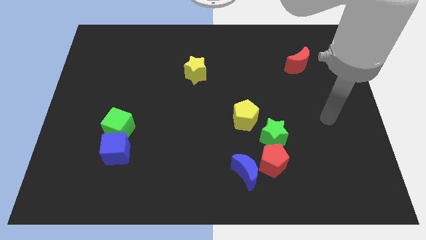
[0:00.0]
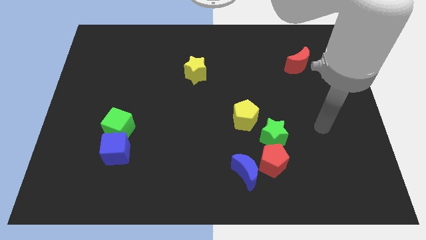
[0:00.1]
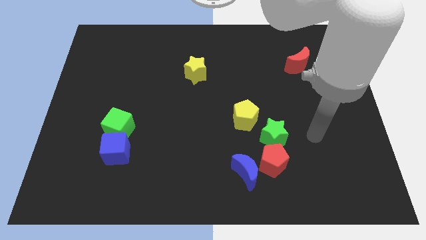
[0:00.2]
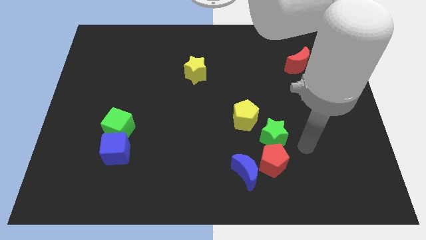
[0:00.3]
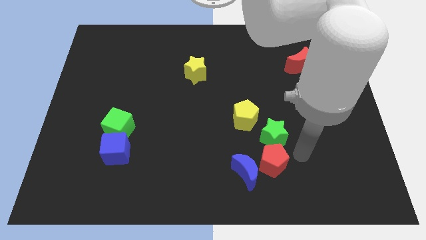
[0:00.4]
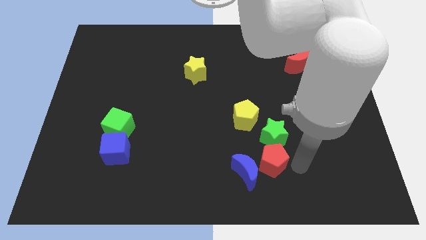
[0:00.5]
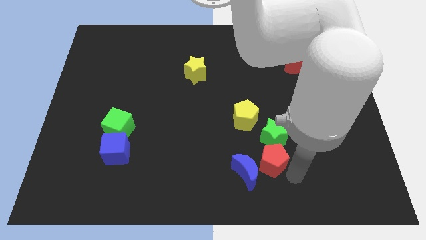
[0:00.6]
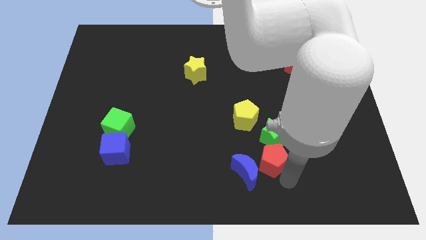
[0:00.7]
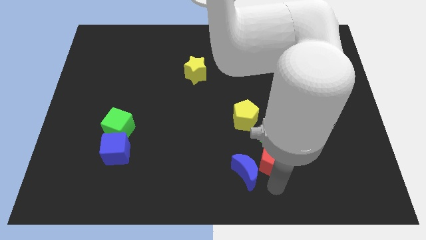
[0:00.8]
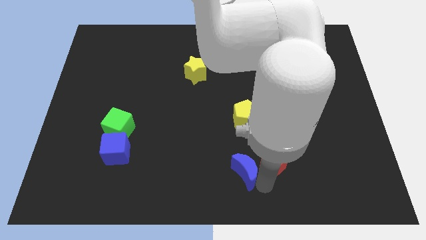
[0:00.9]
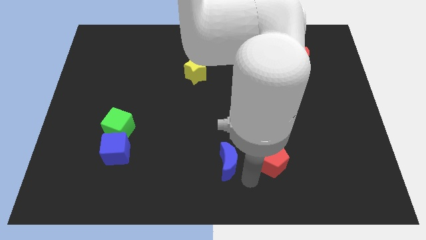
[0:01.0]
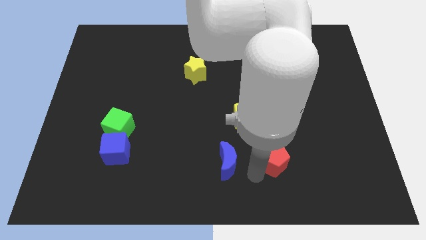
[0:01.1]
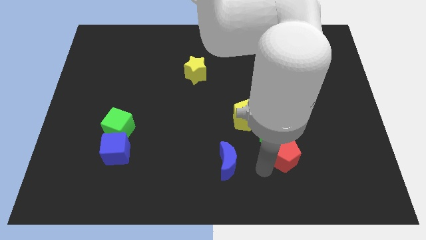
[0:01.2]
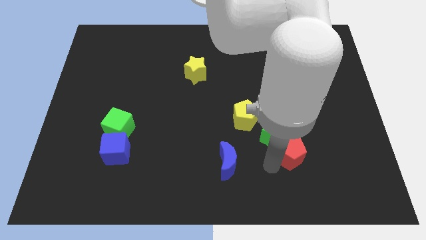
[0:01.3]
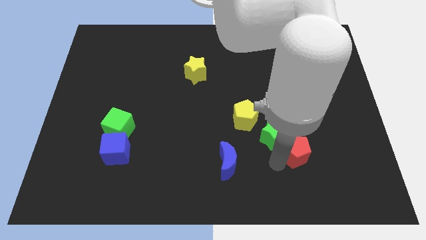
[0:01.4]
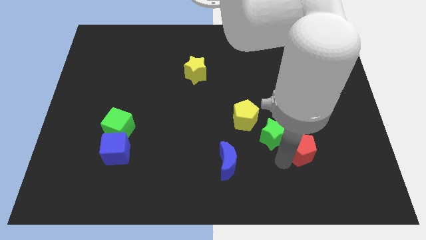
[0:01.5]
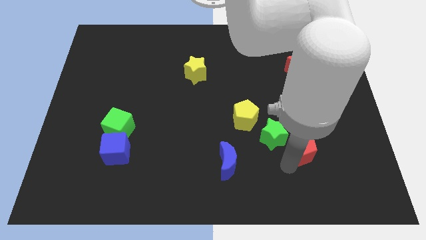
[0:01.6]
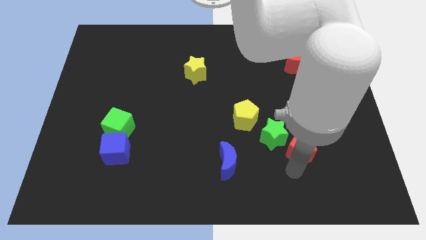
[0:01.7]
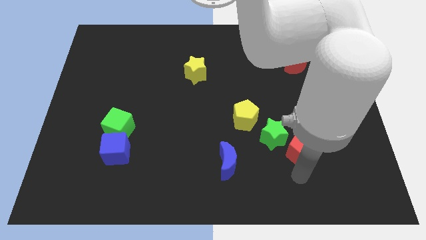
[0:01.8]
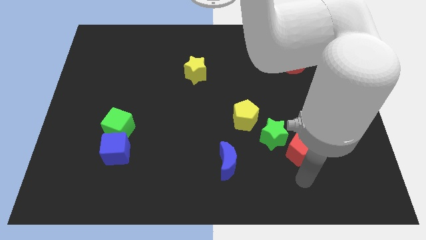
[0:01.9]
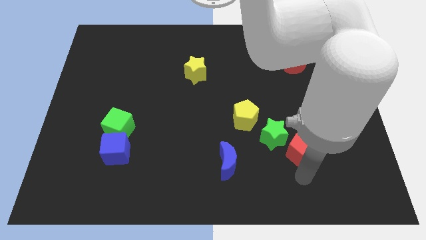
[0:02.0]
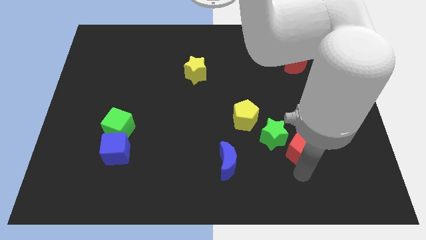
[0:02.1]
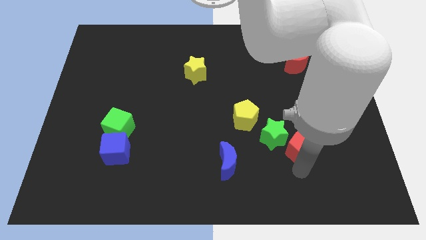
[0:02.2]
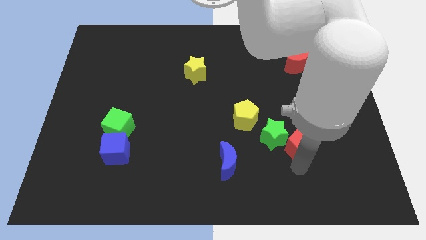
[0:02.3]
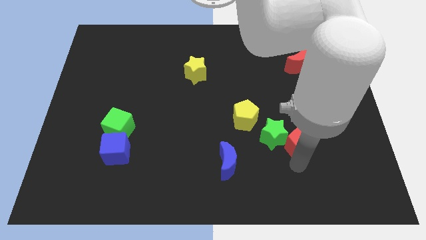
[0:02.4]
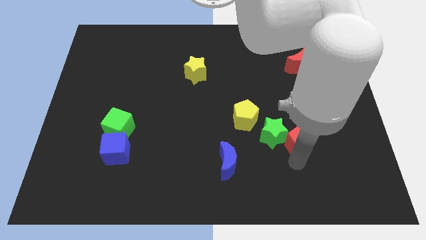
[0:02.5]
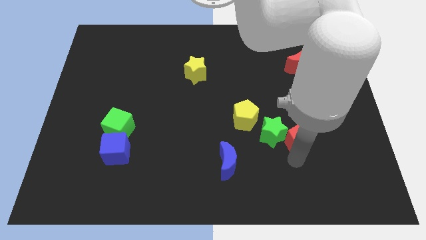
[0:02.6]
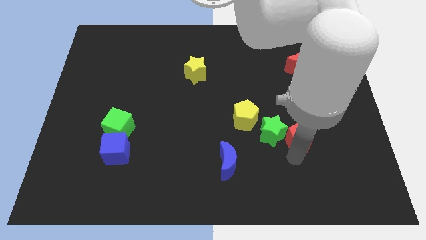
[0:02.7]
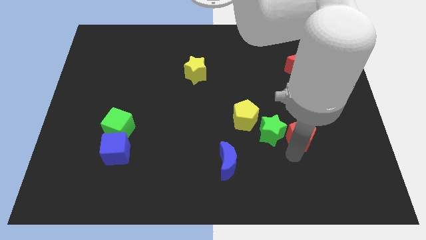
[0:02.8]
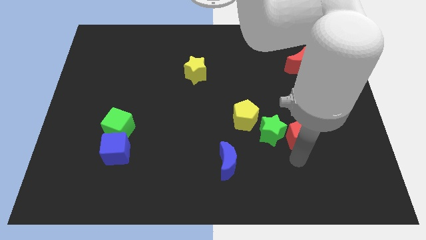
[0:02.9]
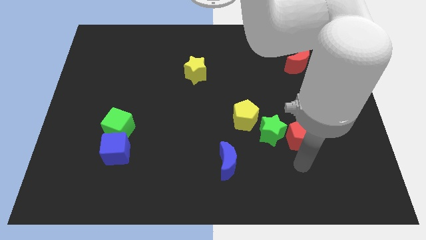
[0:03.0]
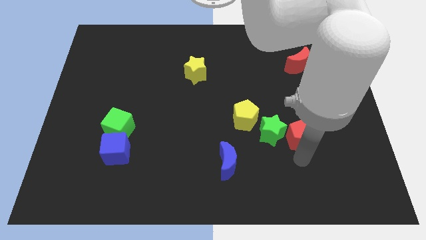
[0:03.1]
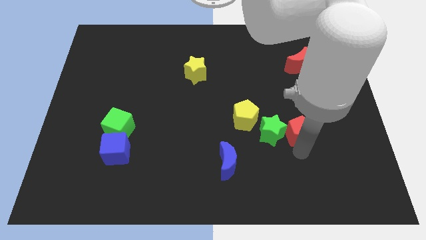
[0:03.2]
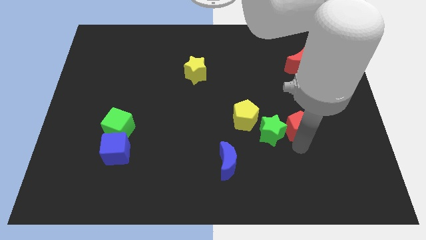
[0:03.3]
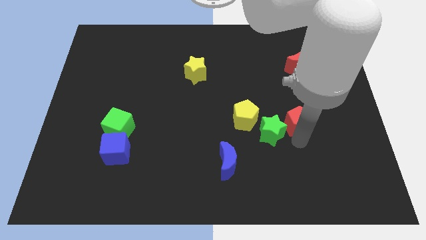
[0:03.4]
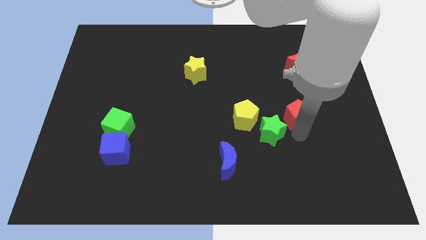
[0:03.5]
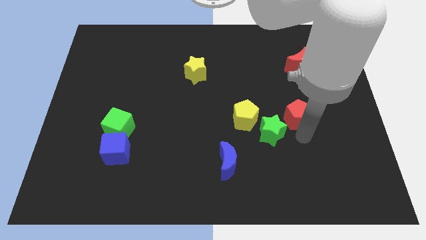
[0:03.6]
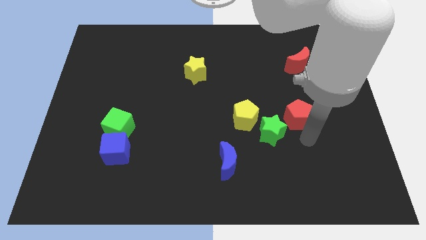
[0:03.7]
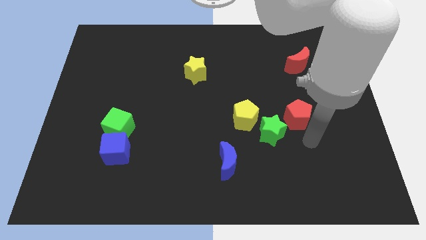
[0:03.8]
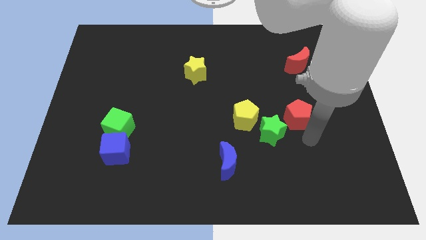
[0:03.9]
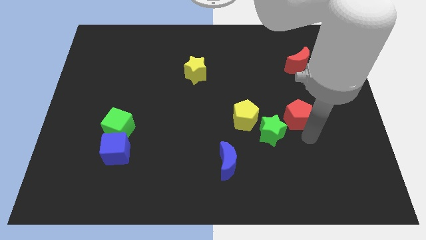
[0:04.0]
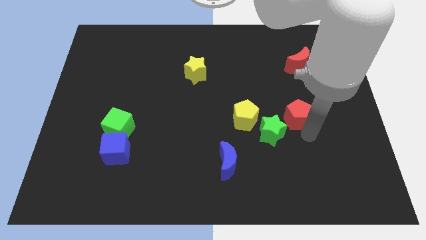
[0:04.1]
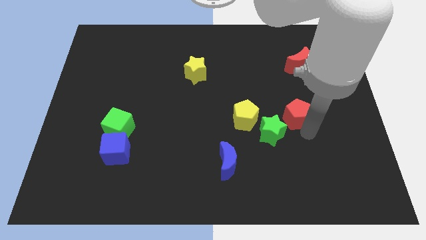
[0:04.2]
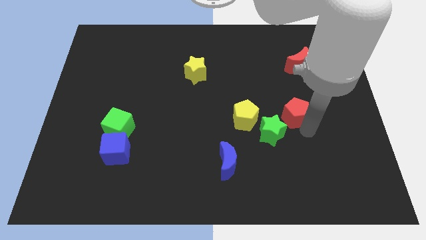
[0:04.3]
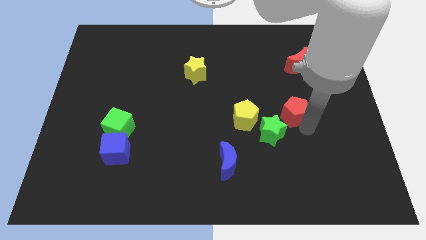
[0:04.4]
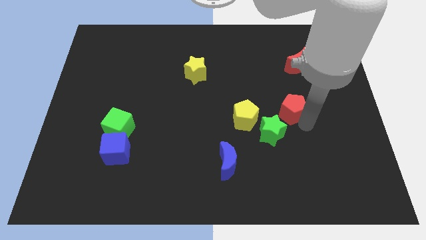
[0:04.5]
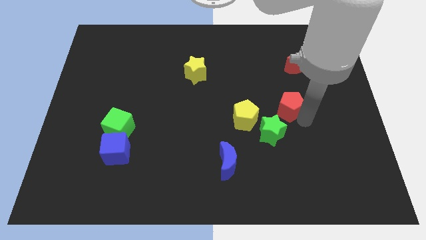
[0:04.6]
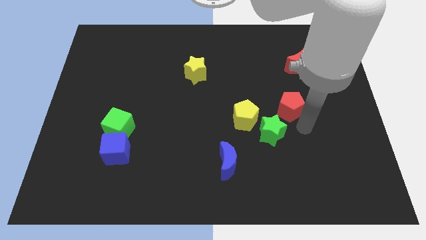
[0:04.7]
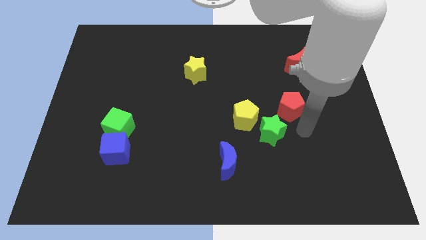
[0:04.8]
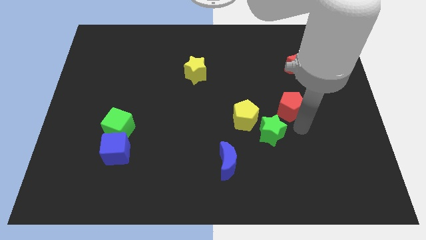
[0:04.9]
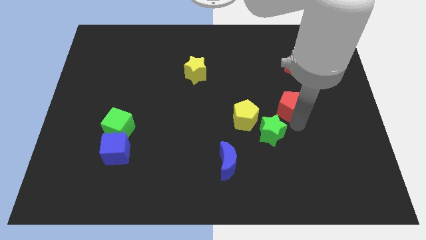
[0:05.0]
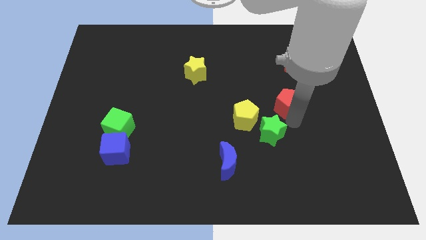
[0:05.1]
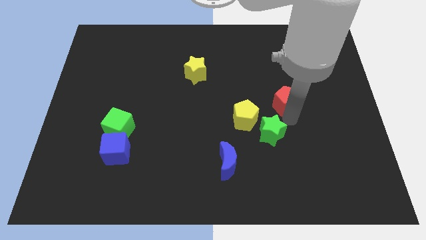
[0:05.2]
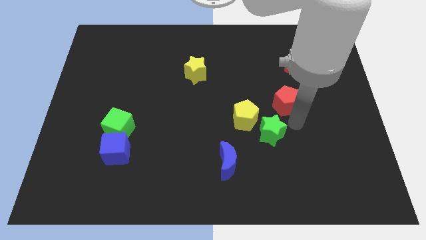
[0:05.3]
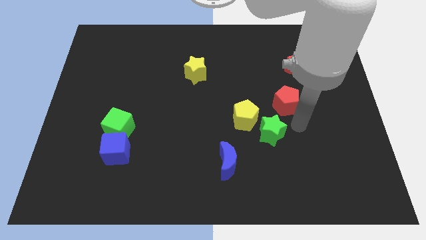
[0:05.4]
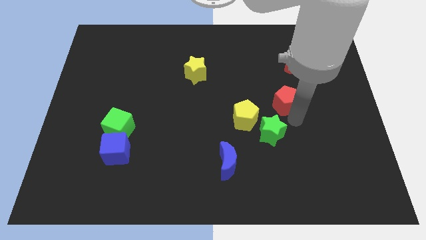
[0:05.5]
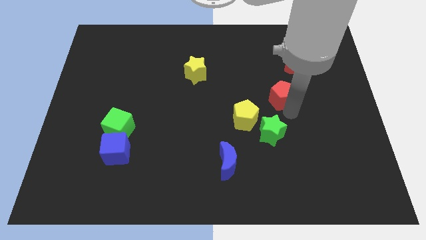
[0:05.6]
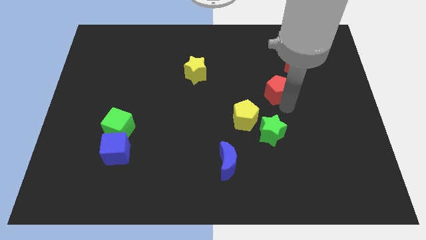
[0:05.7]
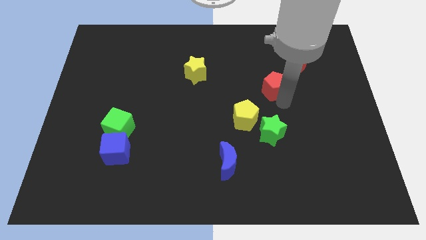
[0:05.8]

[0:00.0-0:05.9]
slide the red pentagon up

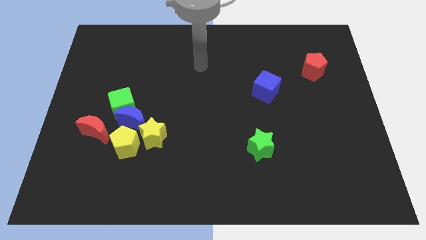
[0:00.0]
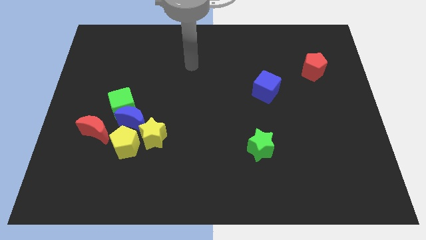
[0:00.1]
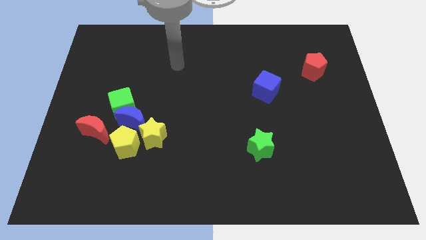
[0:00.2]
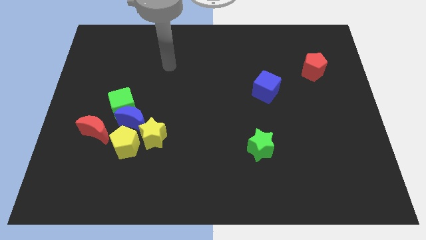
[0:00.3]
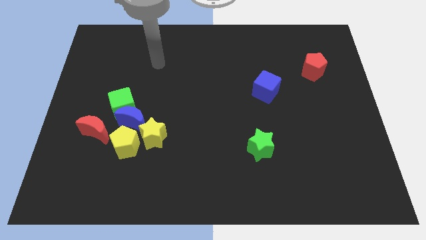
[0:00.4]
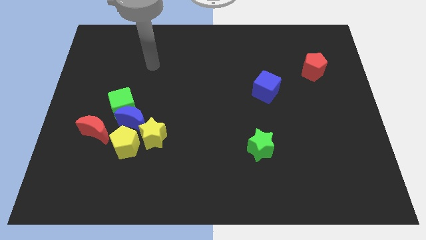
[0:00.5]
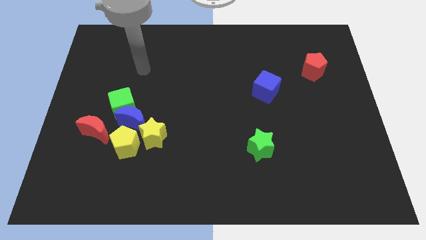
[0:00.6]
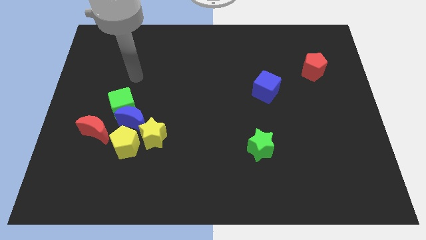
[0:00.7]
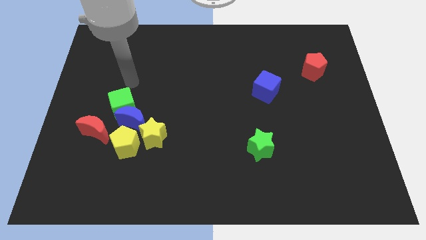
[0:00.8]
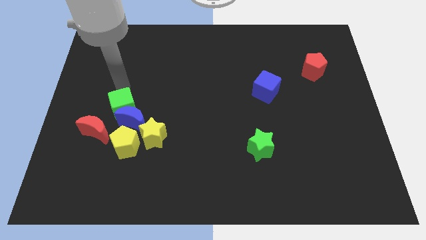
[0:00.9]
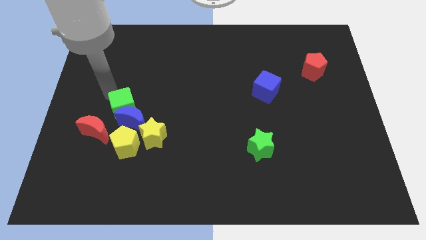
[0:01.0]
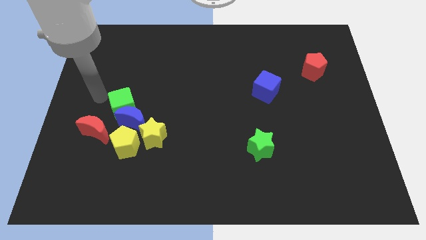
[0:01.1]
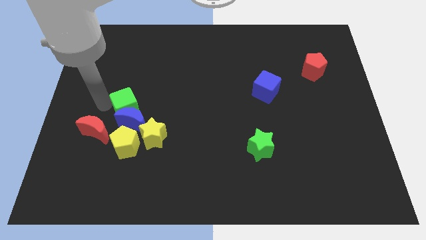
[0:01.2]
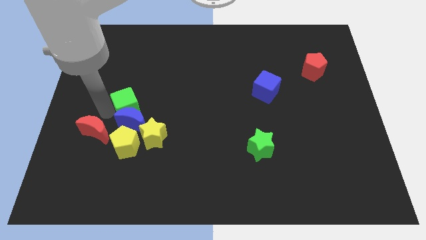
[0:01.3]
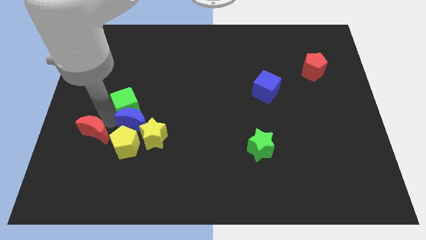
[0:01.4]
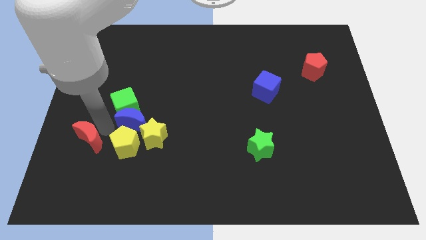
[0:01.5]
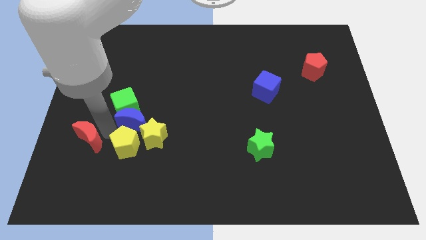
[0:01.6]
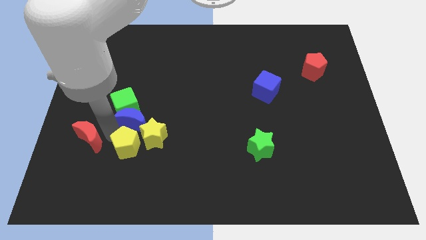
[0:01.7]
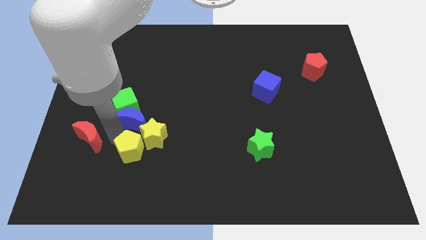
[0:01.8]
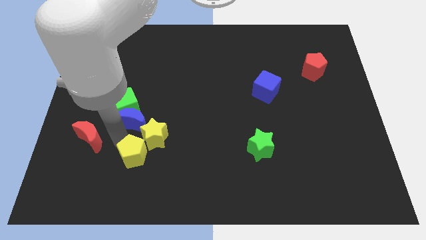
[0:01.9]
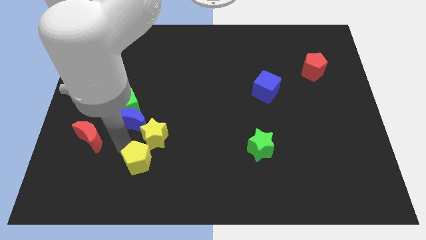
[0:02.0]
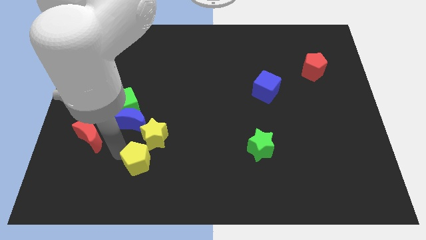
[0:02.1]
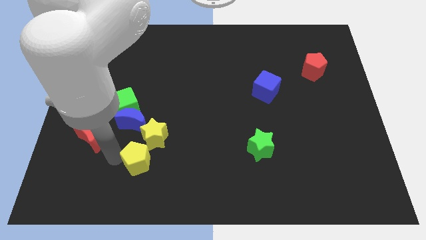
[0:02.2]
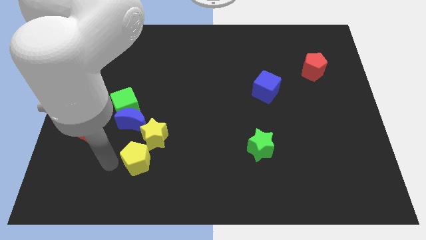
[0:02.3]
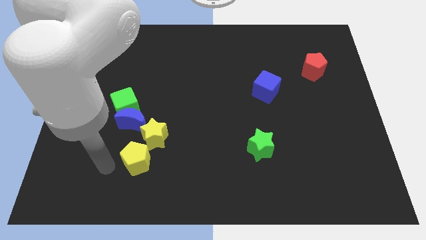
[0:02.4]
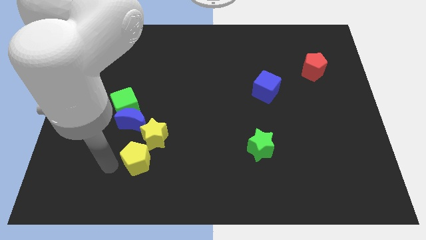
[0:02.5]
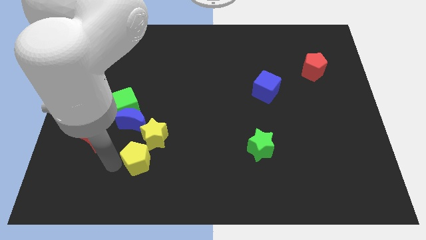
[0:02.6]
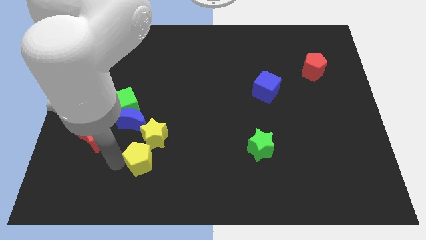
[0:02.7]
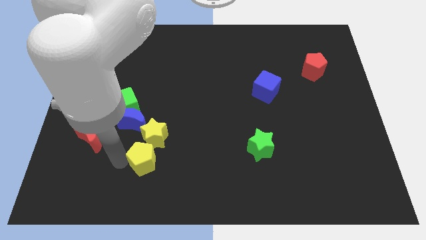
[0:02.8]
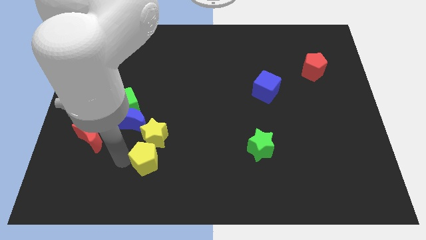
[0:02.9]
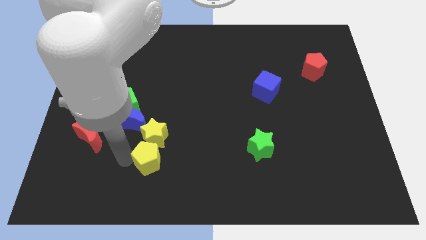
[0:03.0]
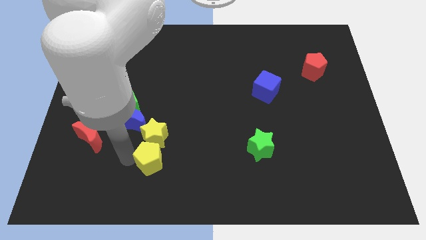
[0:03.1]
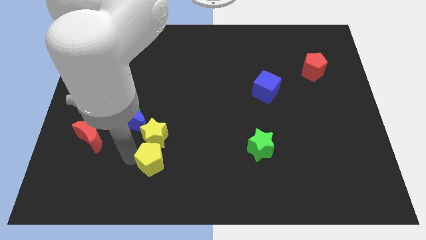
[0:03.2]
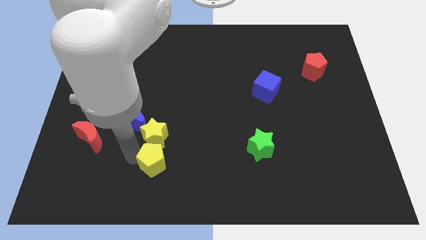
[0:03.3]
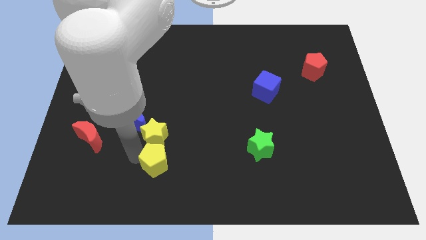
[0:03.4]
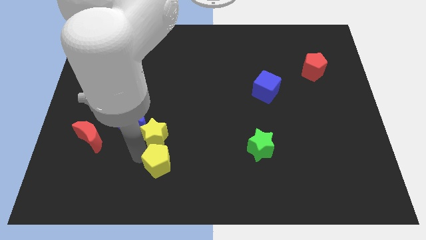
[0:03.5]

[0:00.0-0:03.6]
slide the yellow pentagon to the right a little
